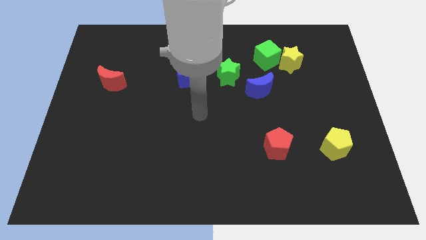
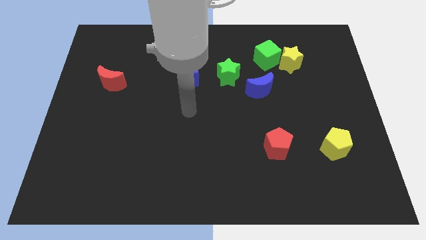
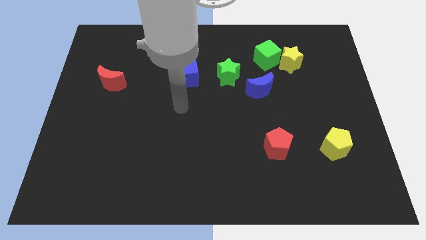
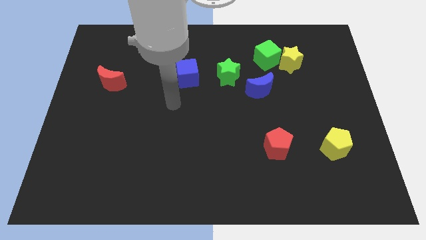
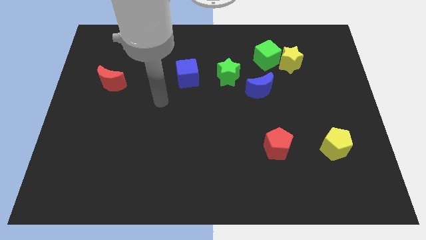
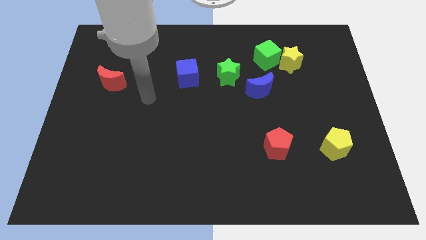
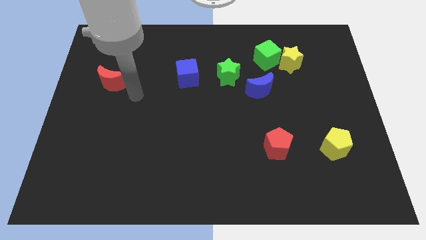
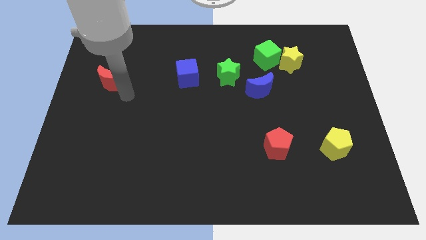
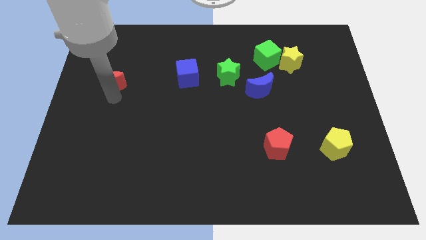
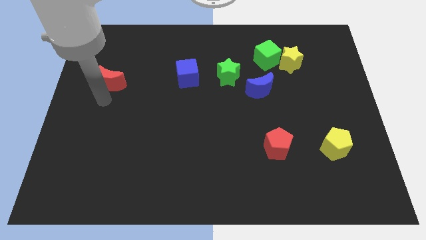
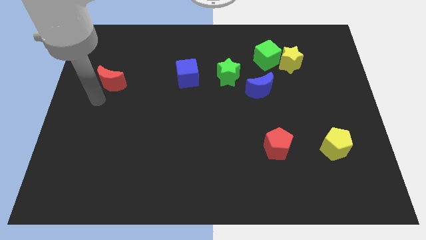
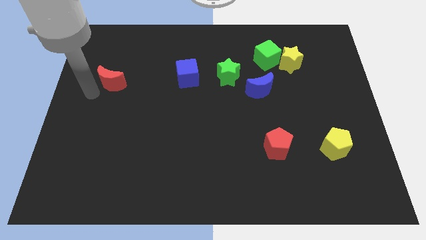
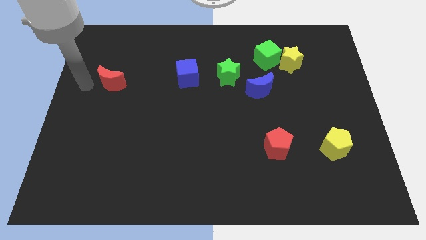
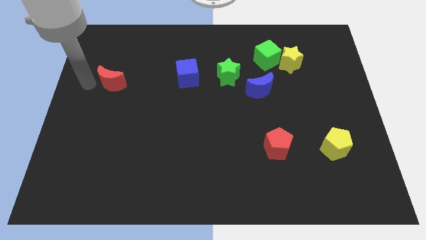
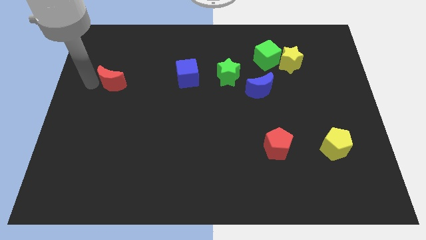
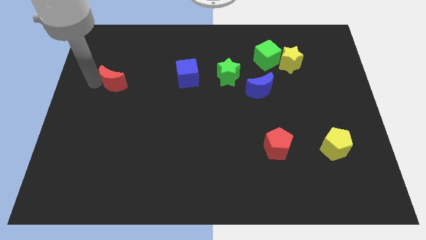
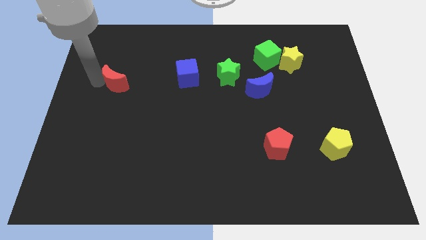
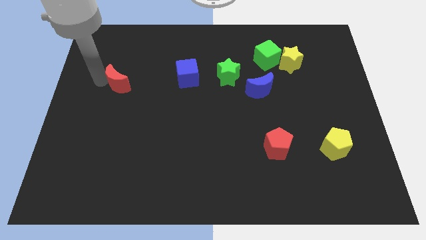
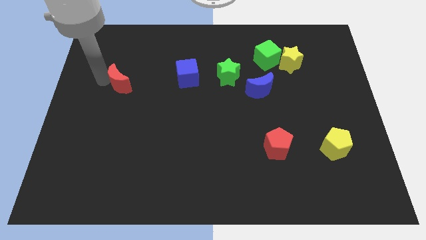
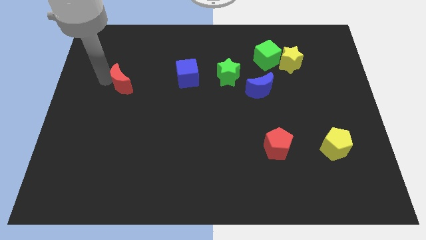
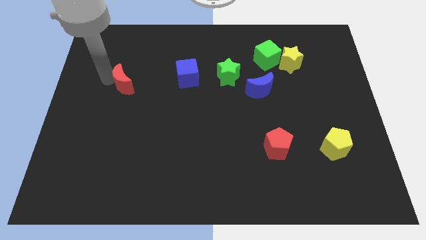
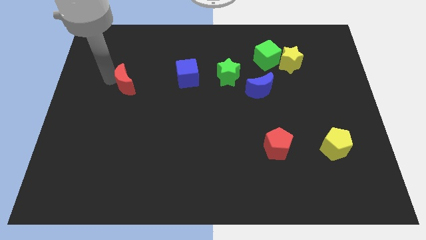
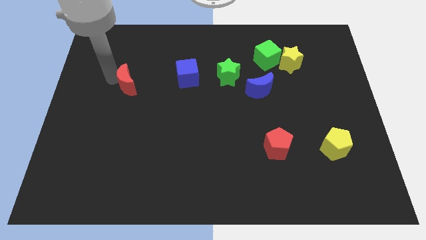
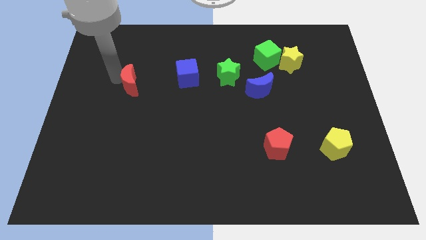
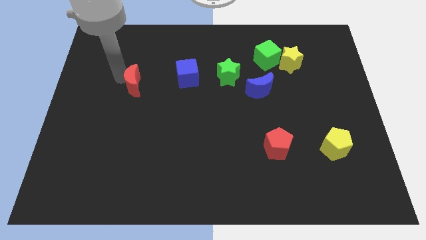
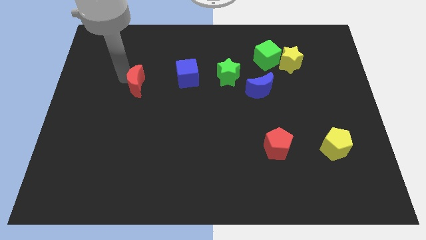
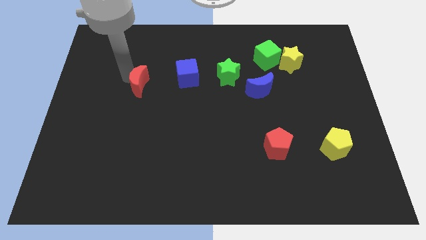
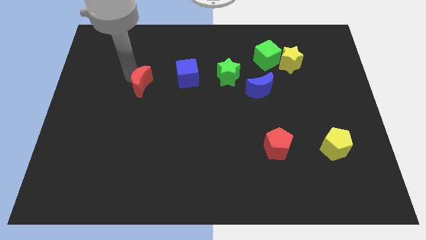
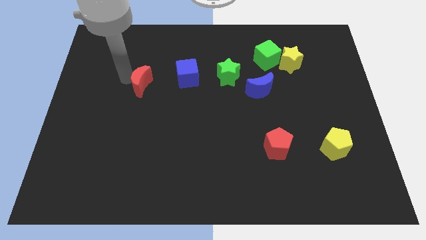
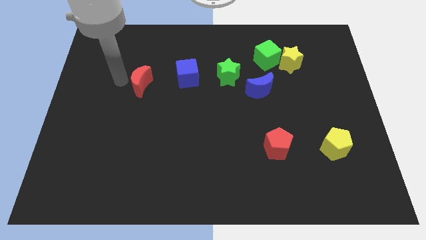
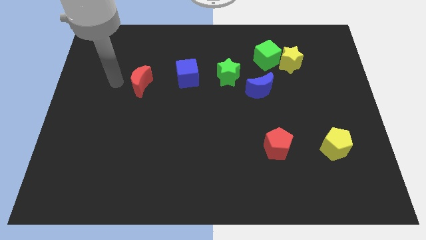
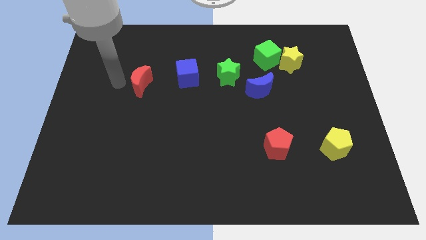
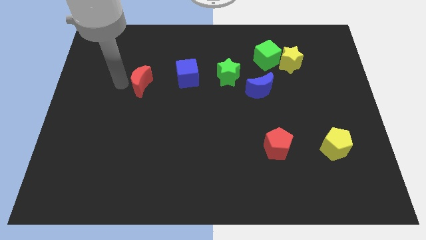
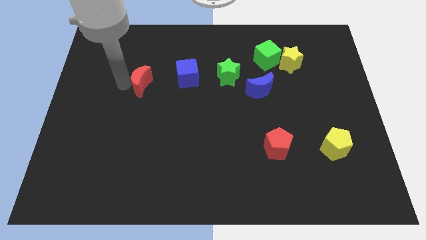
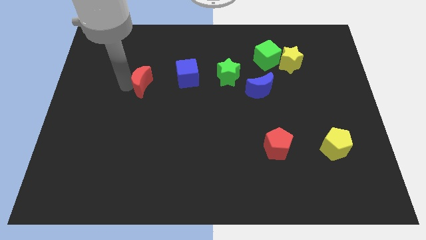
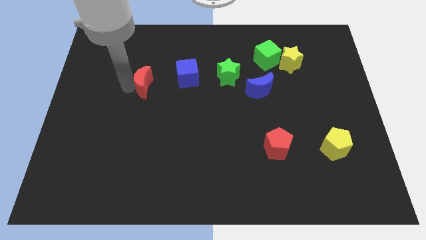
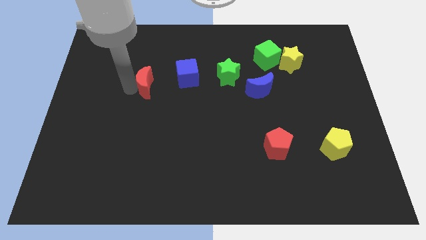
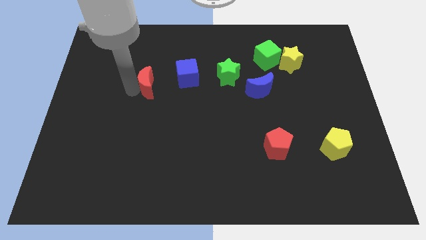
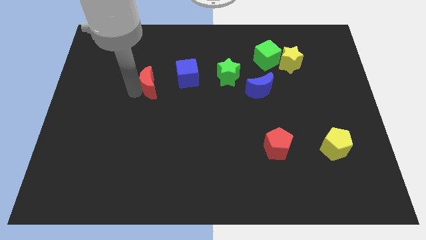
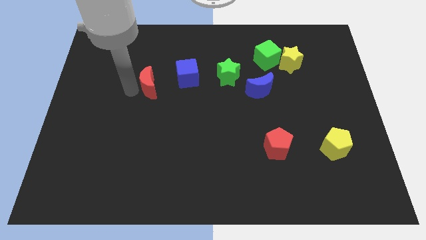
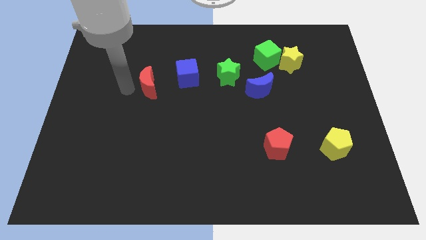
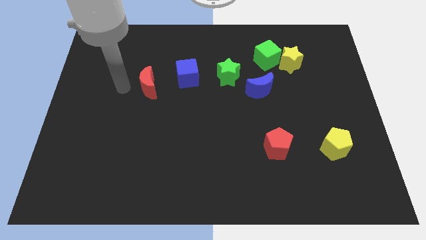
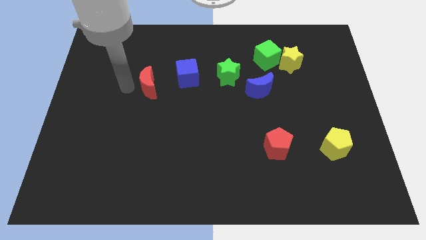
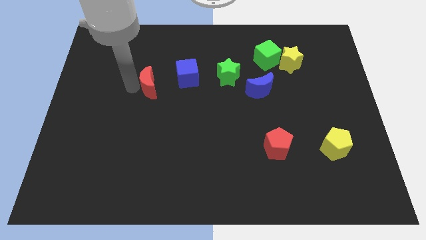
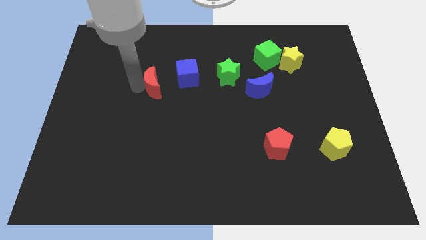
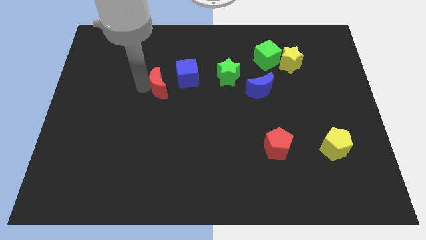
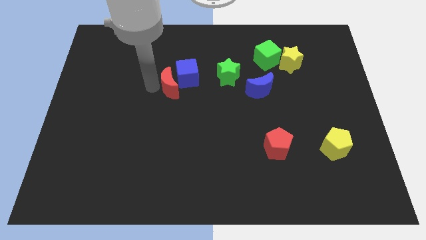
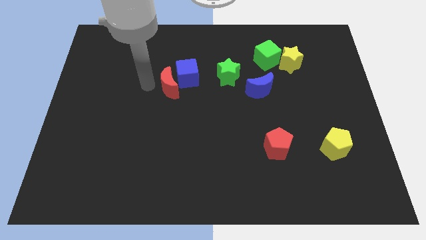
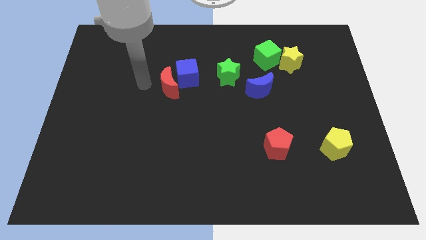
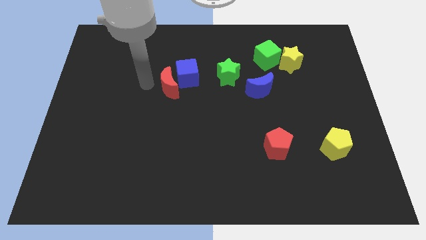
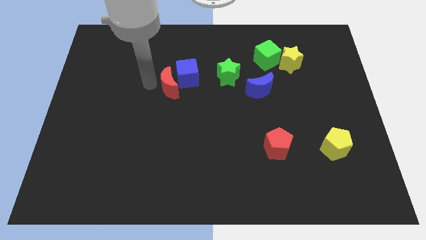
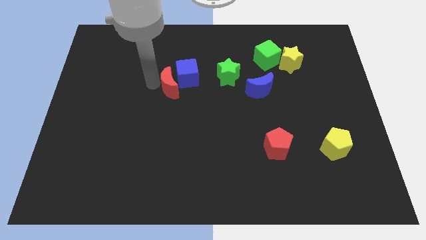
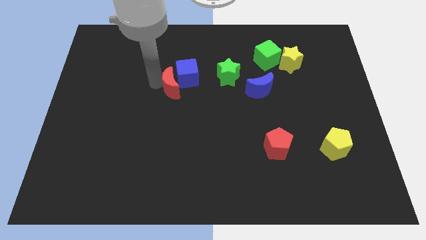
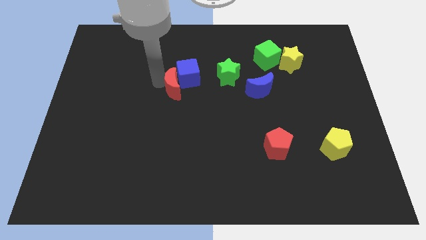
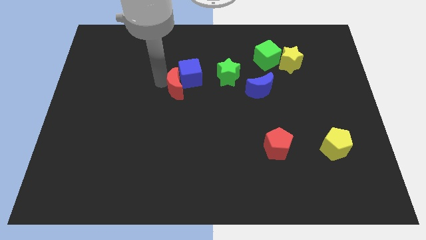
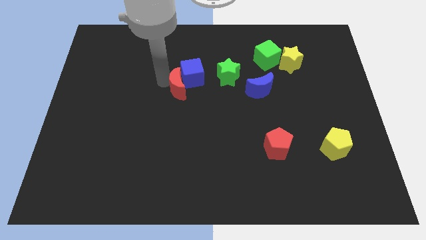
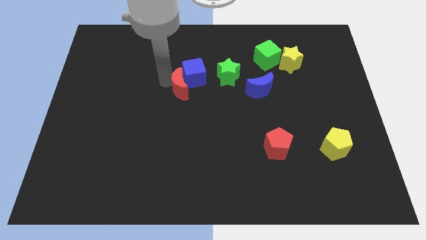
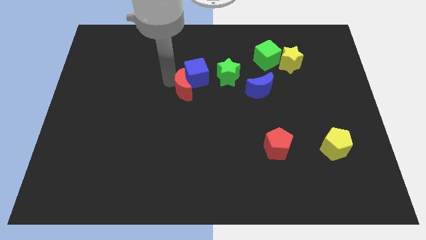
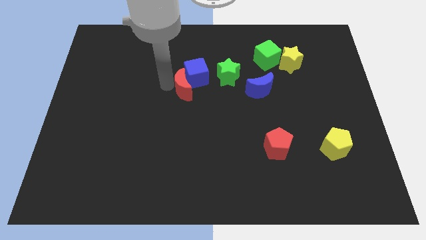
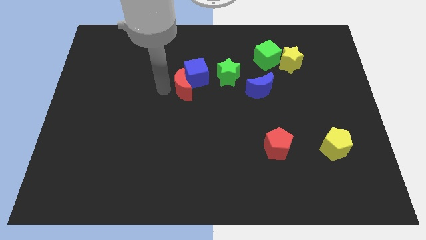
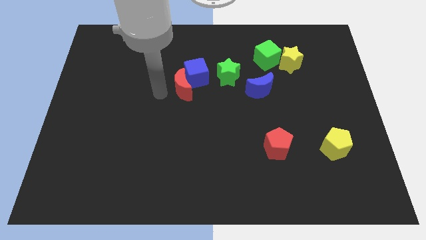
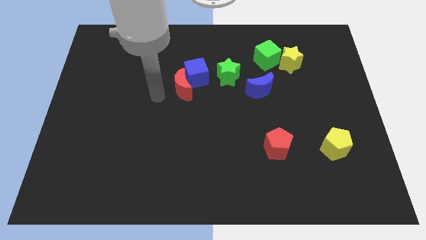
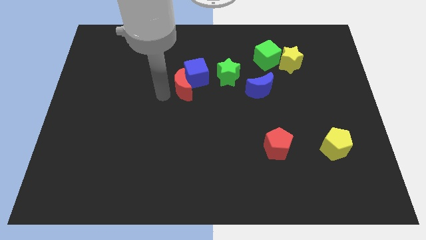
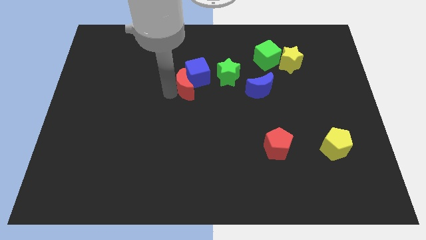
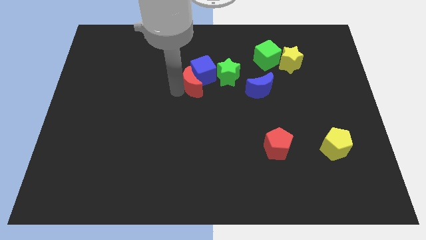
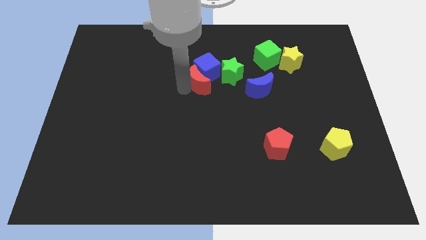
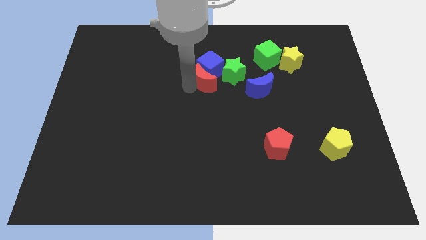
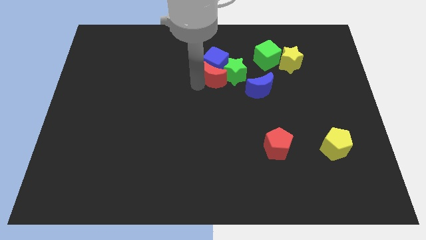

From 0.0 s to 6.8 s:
move the red moon towards the green star

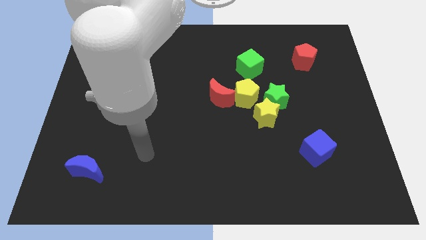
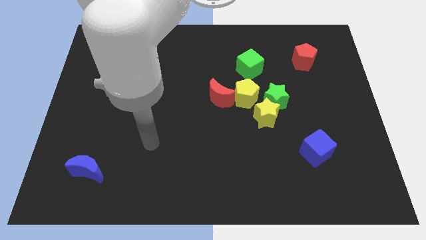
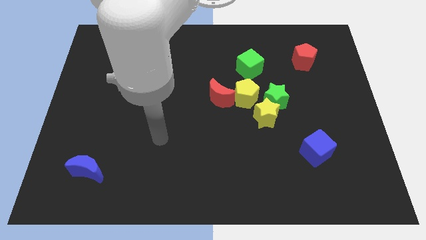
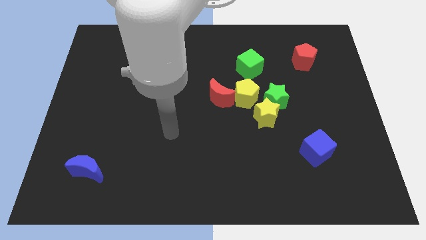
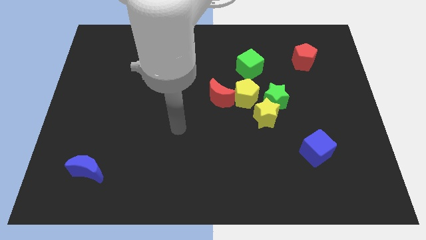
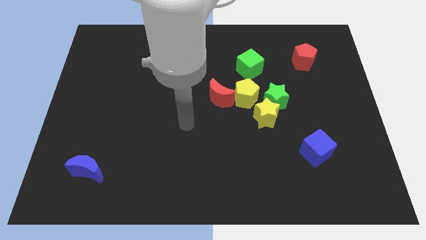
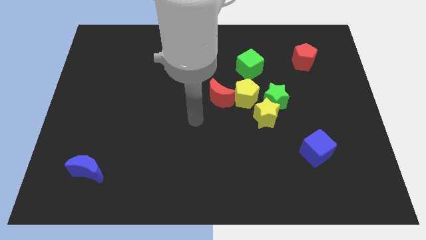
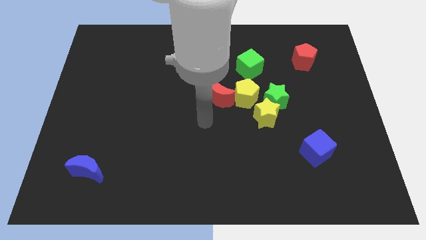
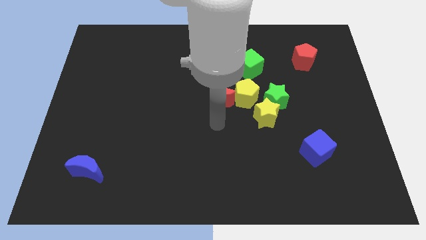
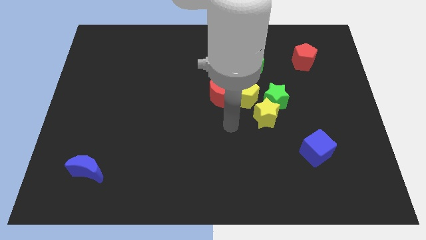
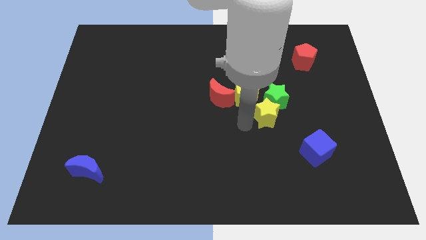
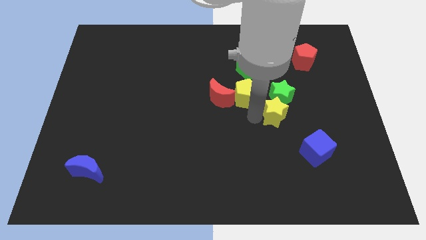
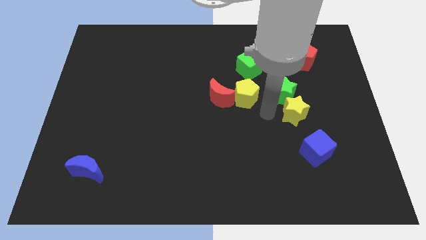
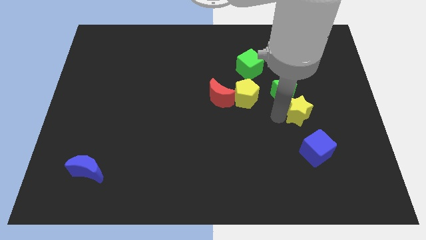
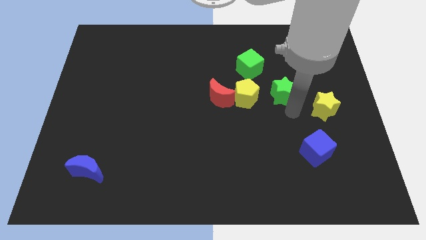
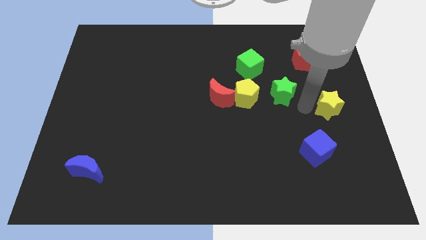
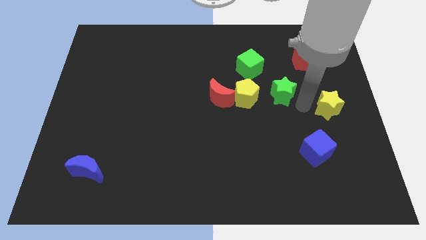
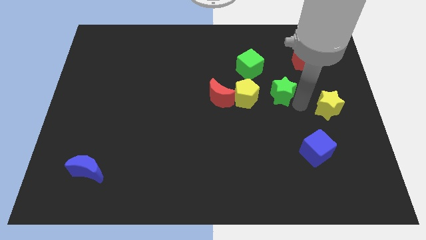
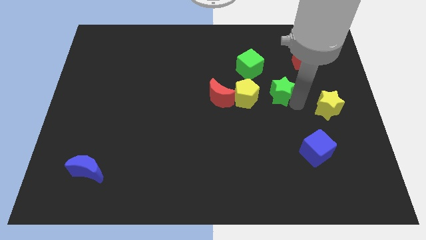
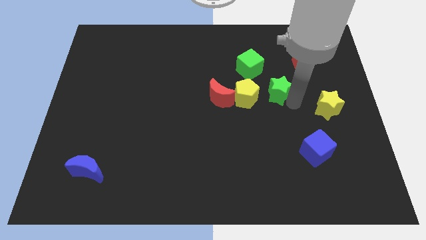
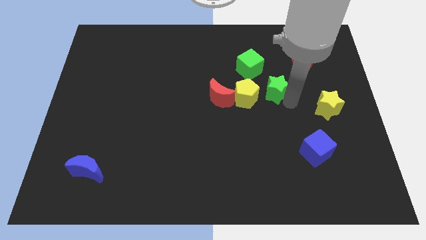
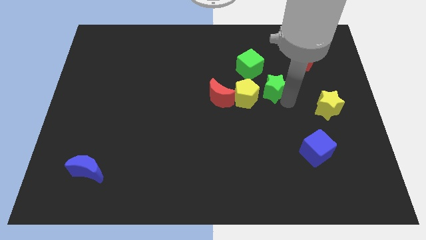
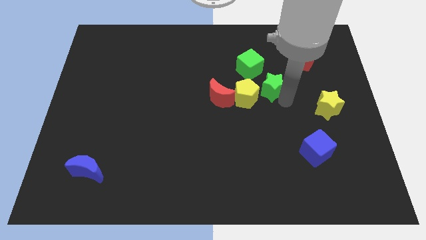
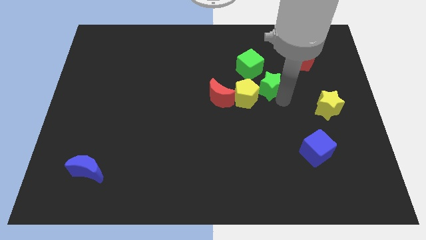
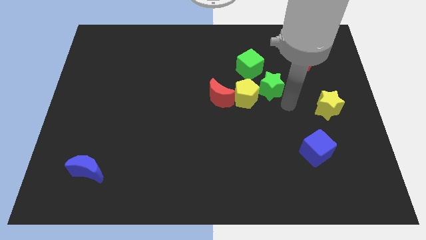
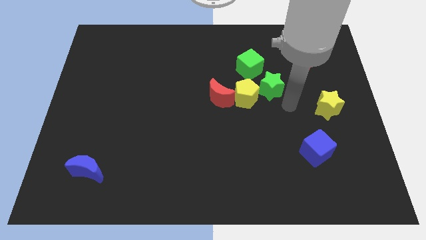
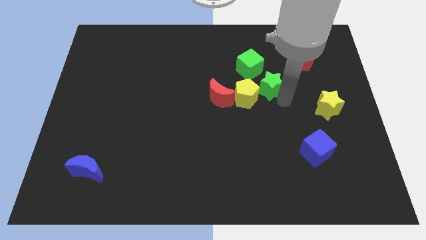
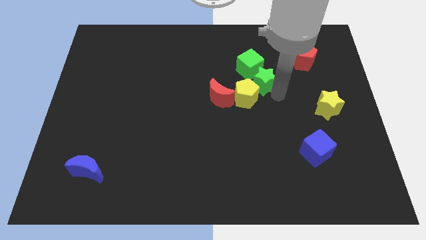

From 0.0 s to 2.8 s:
push the green star next to the green cube
